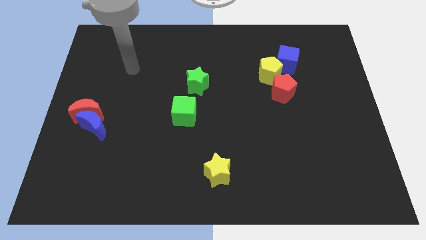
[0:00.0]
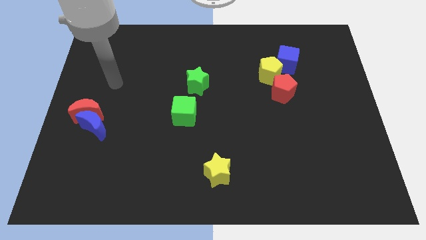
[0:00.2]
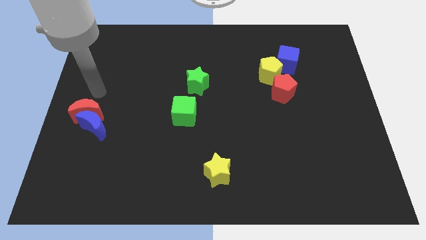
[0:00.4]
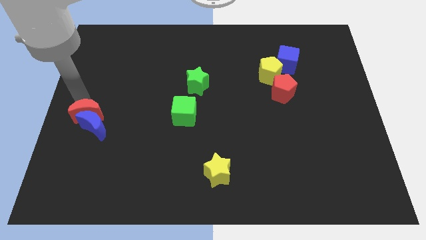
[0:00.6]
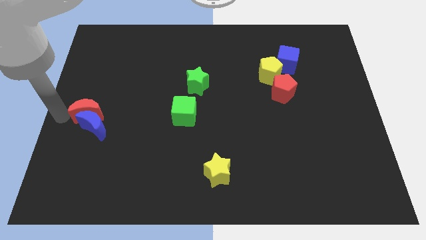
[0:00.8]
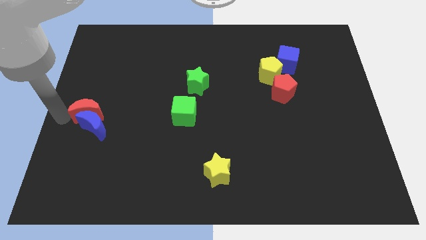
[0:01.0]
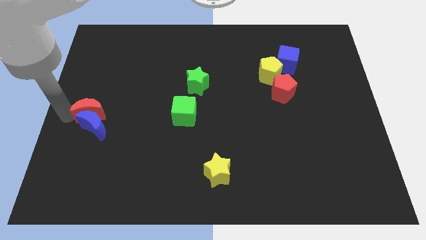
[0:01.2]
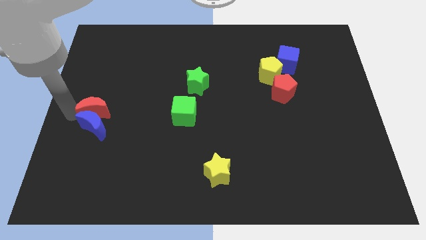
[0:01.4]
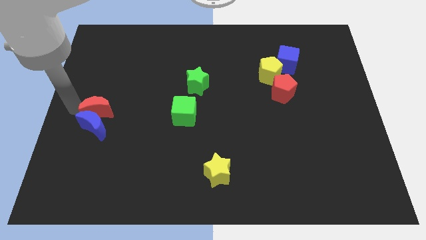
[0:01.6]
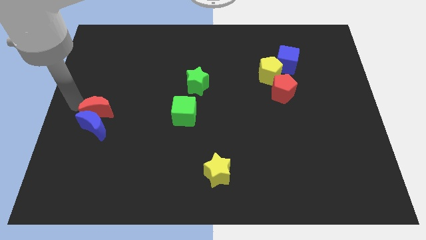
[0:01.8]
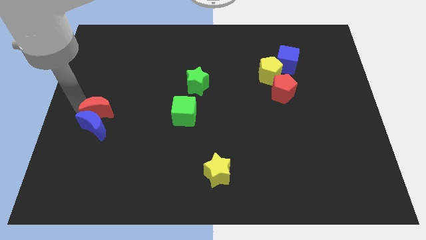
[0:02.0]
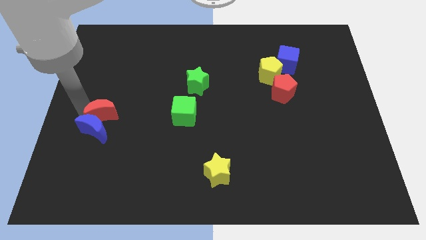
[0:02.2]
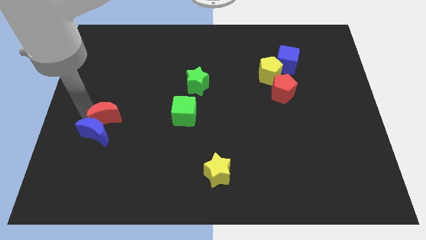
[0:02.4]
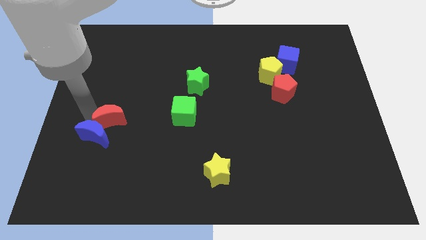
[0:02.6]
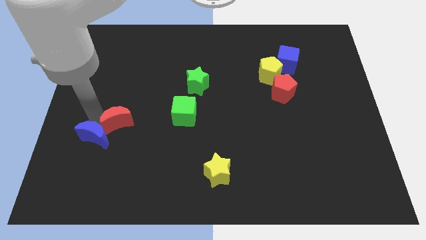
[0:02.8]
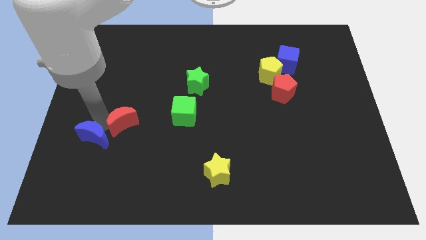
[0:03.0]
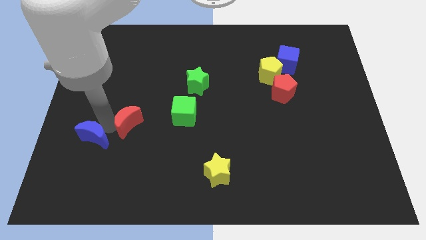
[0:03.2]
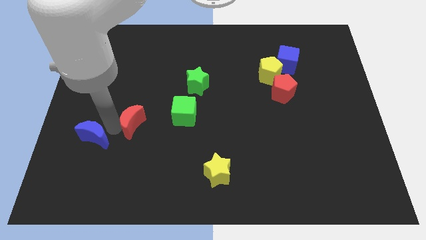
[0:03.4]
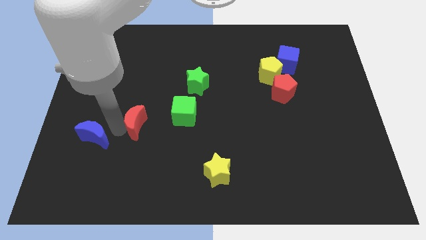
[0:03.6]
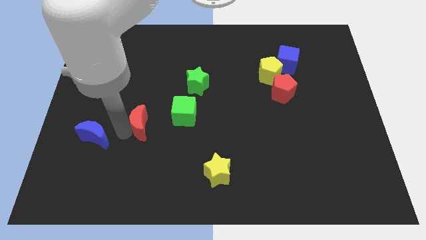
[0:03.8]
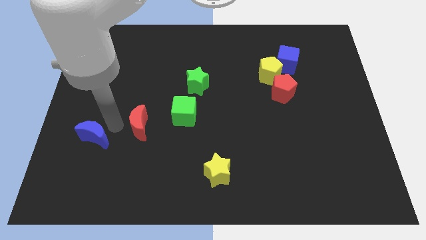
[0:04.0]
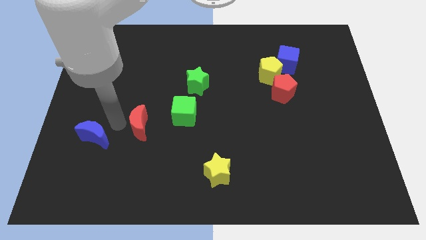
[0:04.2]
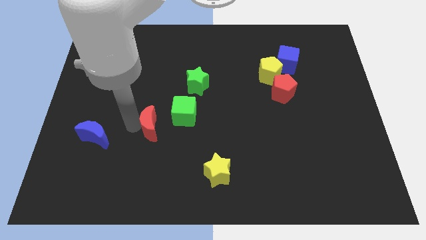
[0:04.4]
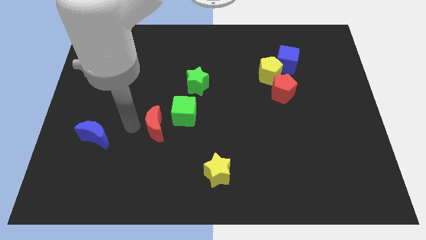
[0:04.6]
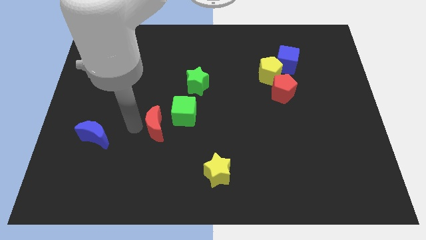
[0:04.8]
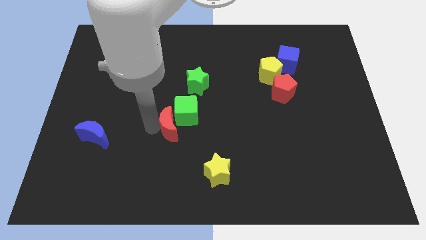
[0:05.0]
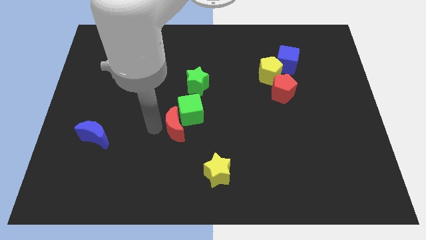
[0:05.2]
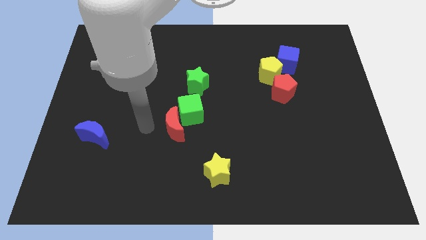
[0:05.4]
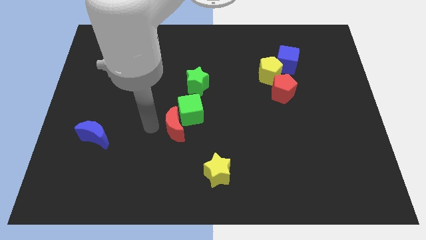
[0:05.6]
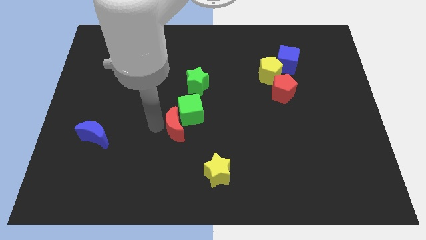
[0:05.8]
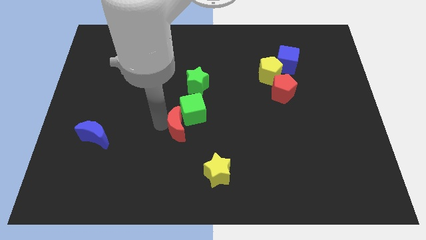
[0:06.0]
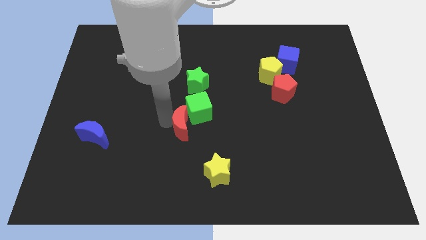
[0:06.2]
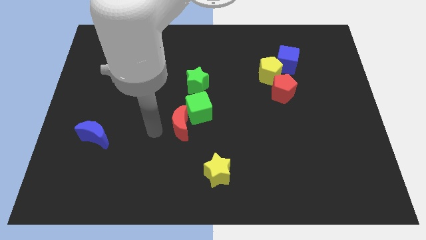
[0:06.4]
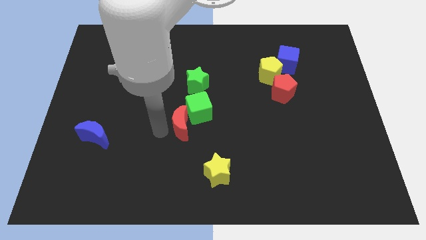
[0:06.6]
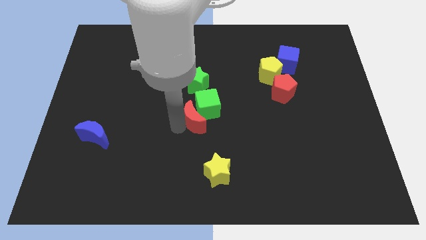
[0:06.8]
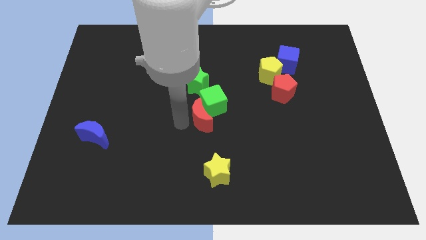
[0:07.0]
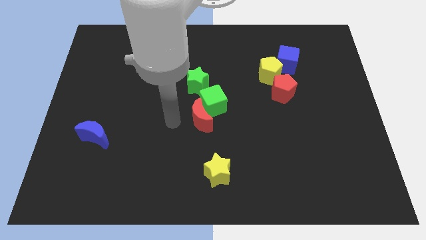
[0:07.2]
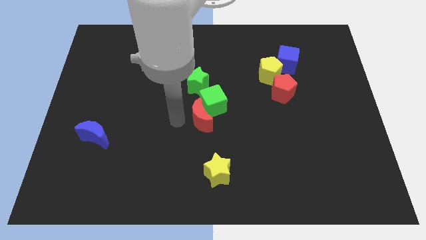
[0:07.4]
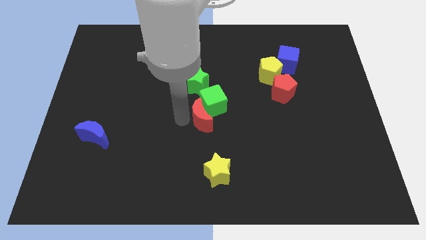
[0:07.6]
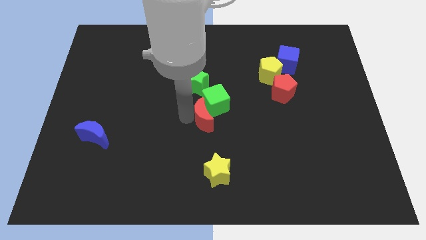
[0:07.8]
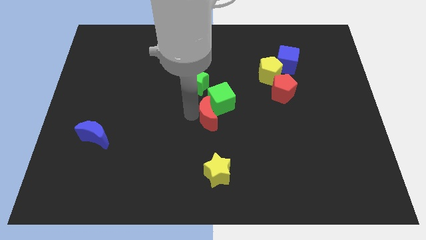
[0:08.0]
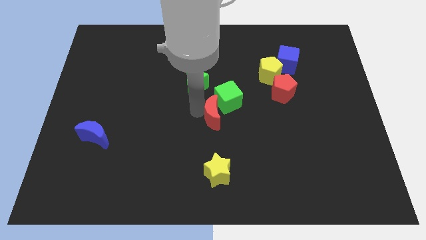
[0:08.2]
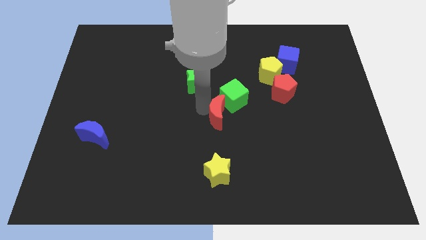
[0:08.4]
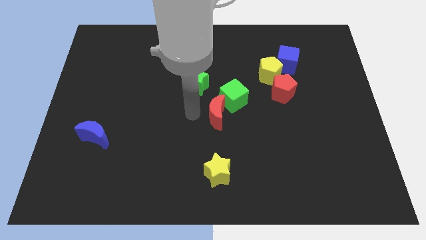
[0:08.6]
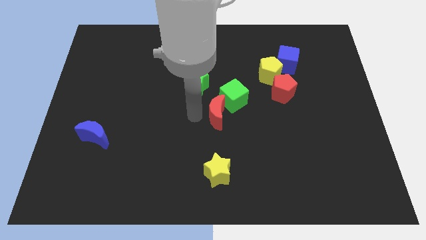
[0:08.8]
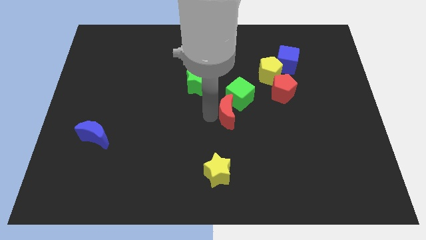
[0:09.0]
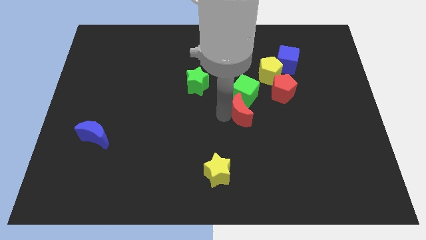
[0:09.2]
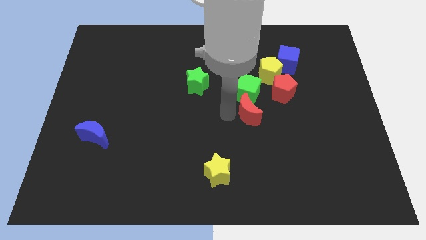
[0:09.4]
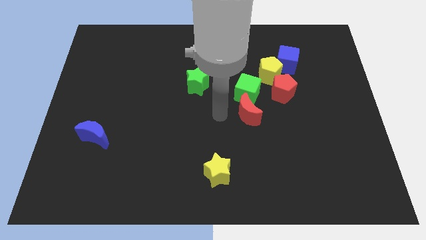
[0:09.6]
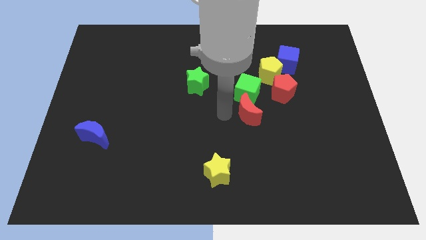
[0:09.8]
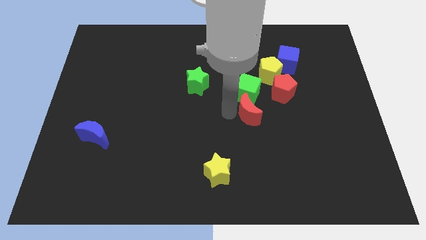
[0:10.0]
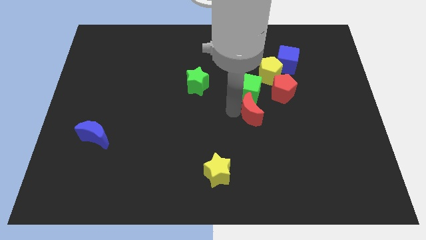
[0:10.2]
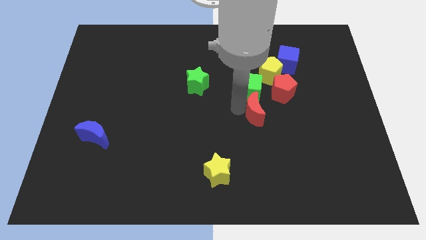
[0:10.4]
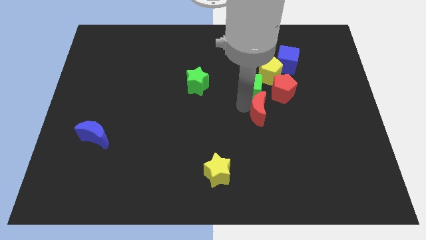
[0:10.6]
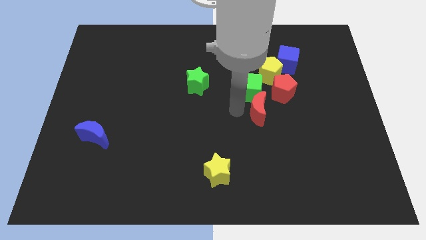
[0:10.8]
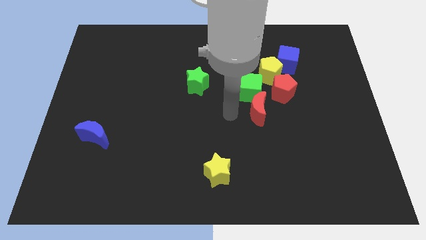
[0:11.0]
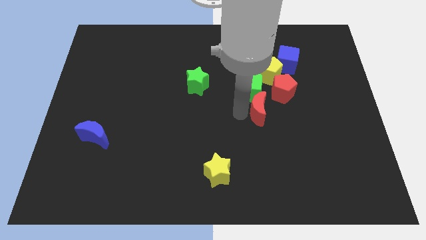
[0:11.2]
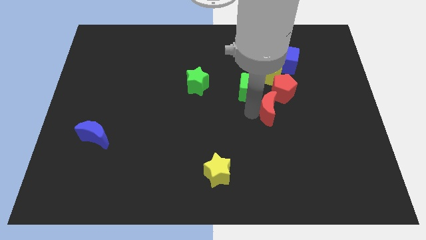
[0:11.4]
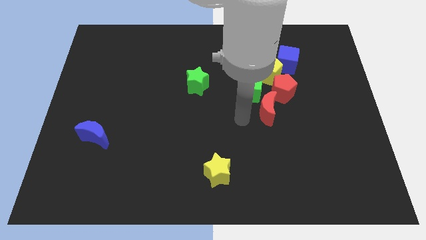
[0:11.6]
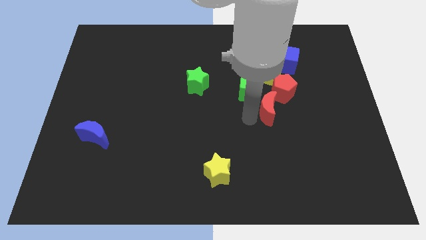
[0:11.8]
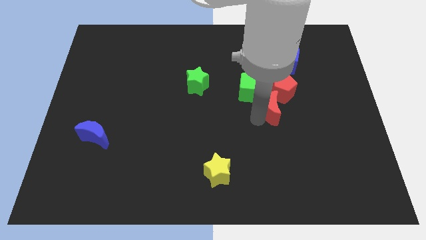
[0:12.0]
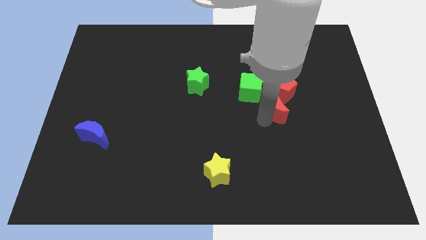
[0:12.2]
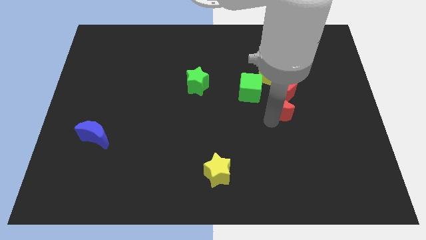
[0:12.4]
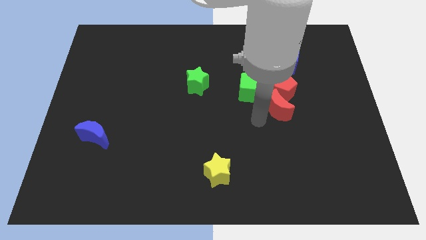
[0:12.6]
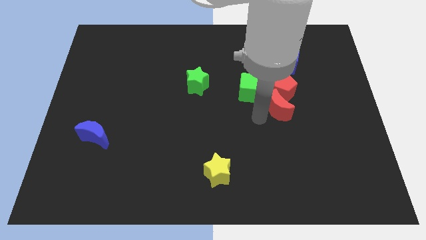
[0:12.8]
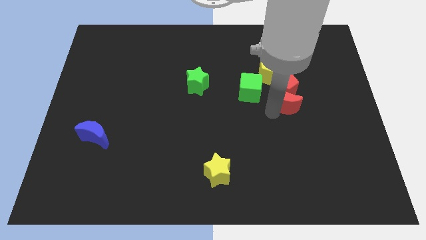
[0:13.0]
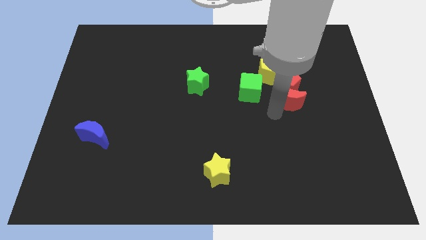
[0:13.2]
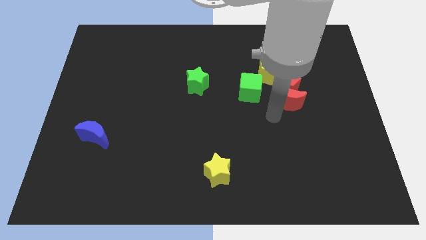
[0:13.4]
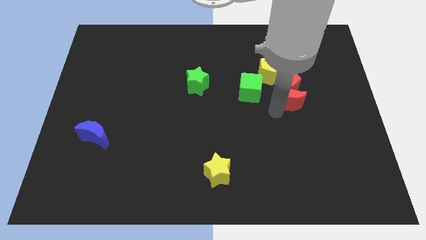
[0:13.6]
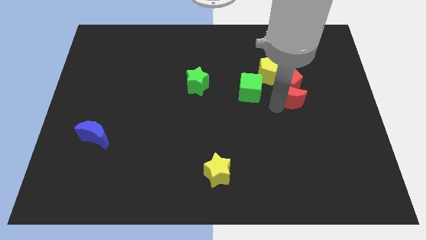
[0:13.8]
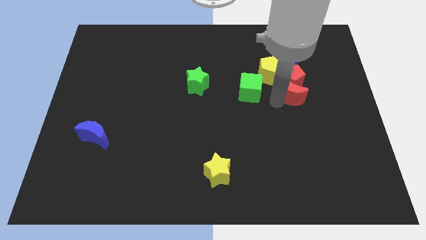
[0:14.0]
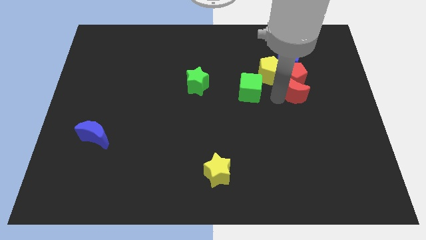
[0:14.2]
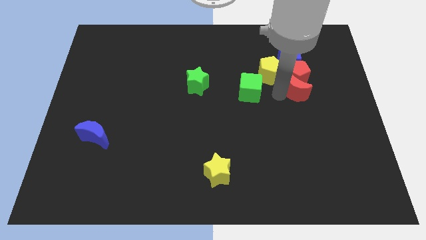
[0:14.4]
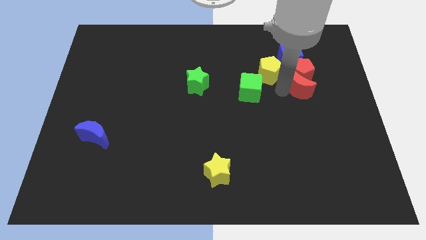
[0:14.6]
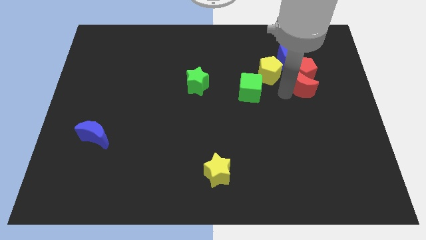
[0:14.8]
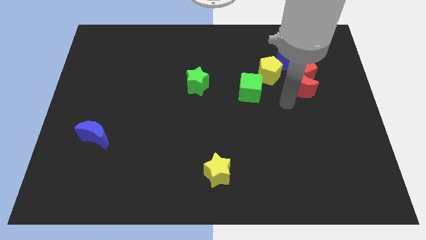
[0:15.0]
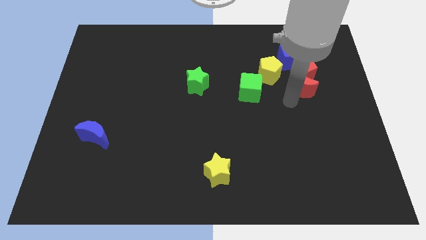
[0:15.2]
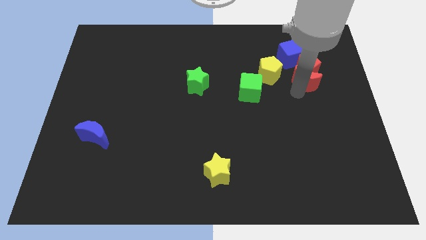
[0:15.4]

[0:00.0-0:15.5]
move the red moon to the bottom right side of the blue cube
